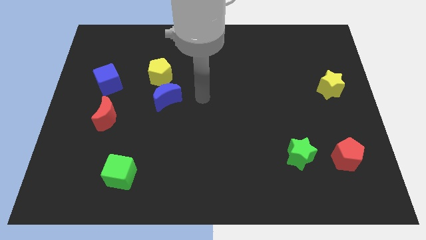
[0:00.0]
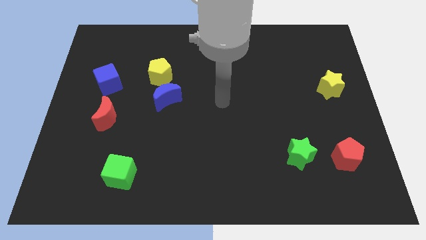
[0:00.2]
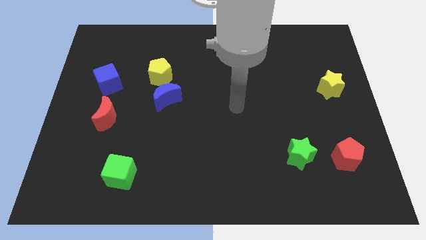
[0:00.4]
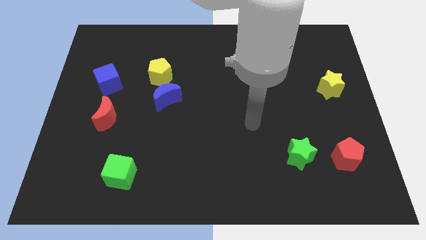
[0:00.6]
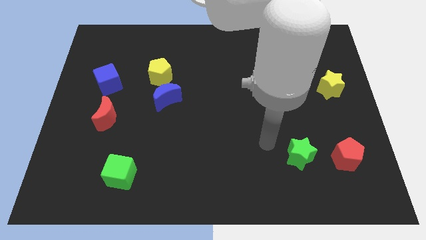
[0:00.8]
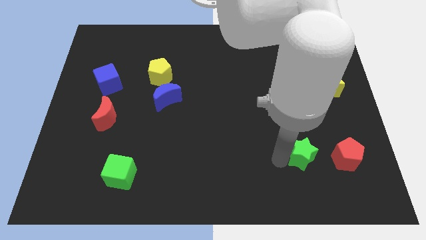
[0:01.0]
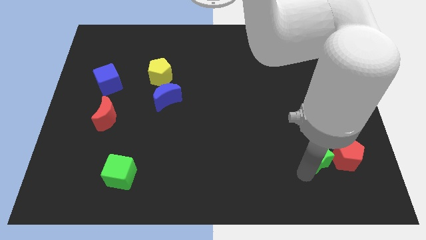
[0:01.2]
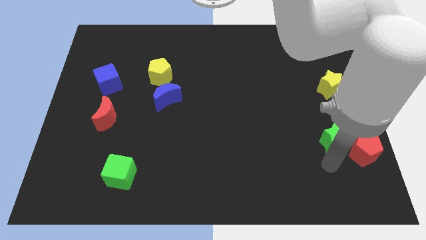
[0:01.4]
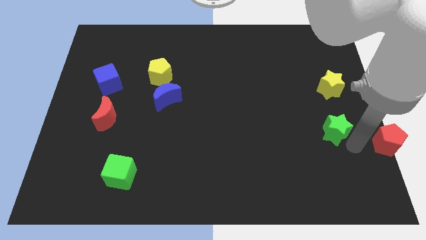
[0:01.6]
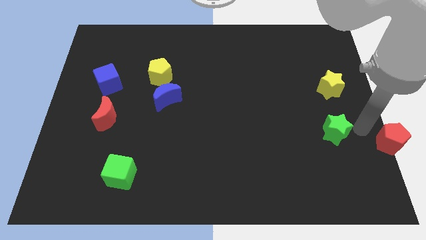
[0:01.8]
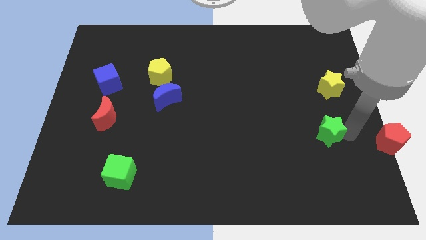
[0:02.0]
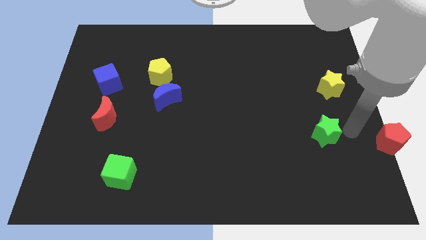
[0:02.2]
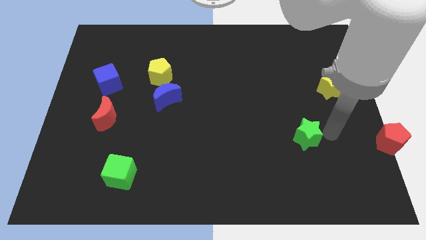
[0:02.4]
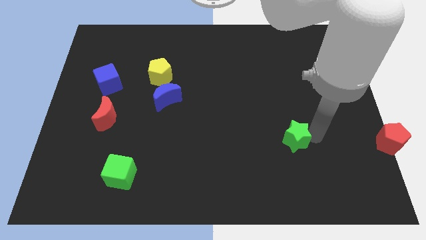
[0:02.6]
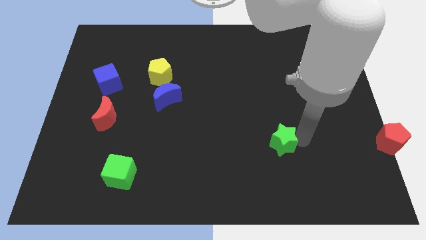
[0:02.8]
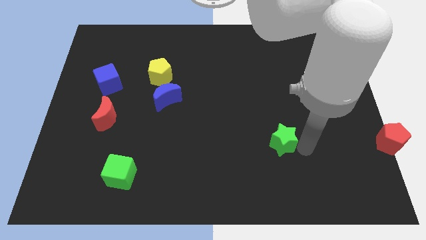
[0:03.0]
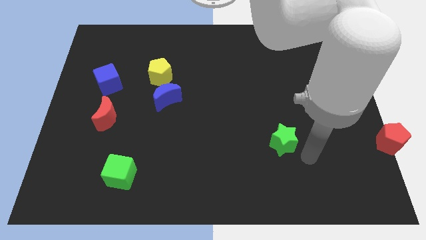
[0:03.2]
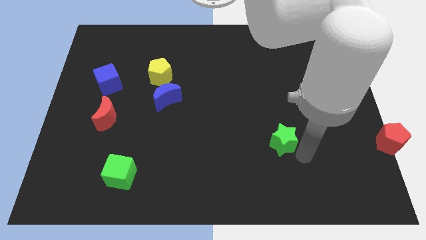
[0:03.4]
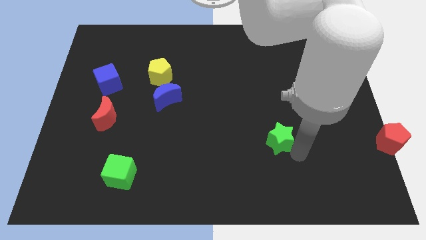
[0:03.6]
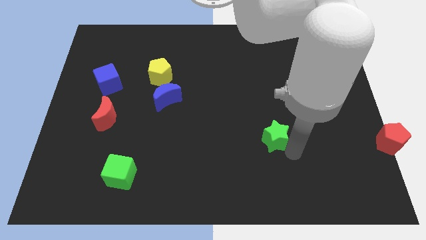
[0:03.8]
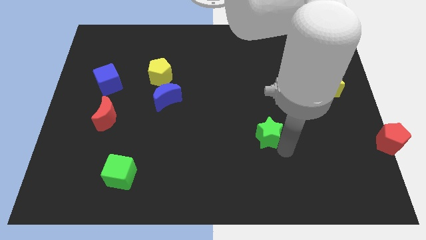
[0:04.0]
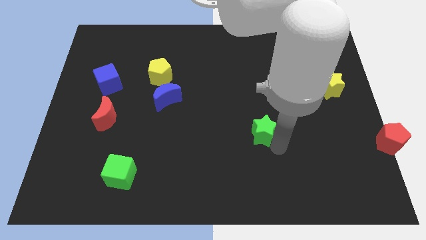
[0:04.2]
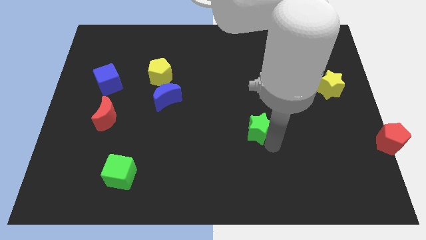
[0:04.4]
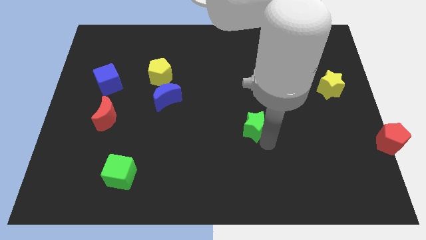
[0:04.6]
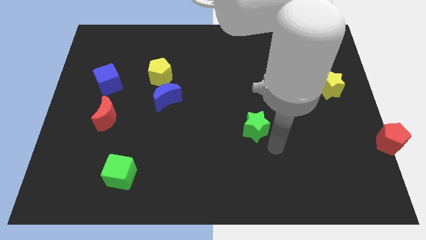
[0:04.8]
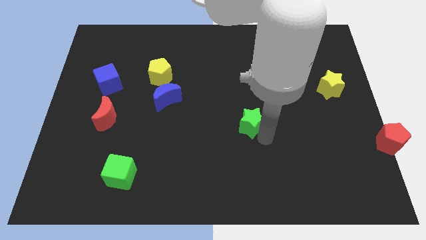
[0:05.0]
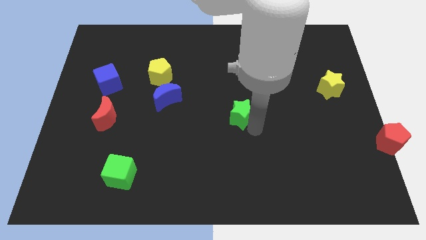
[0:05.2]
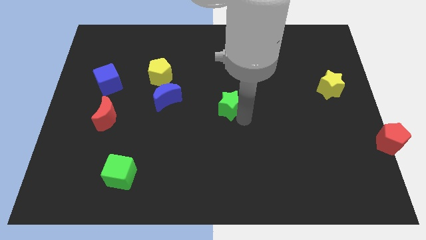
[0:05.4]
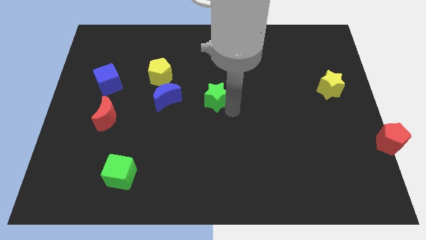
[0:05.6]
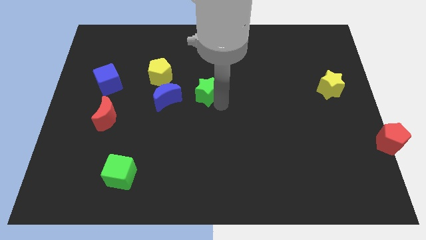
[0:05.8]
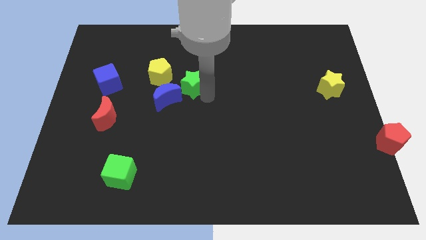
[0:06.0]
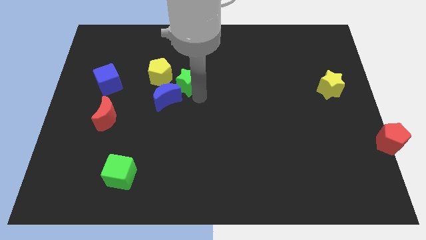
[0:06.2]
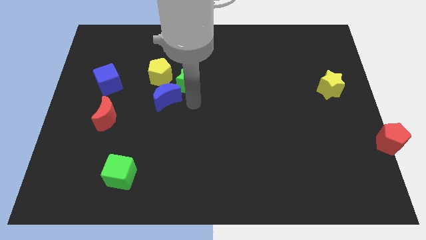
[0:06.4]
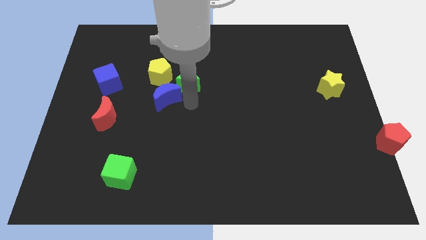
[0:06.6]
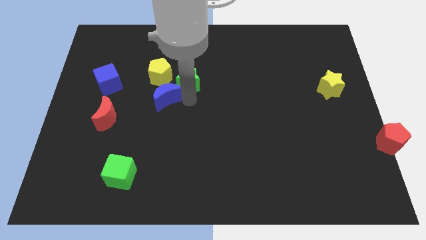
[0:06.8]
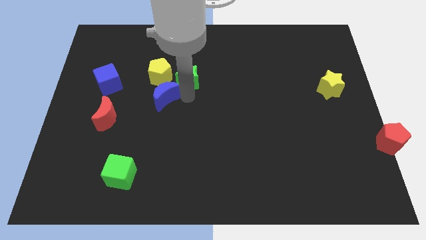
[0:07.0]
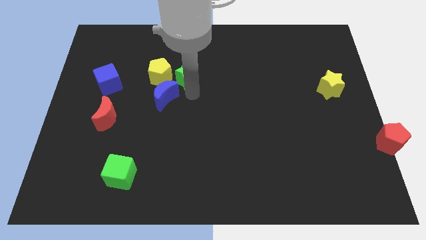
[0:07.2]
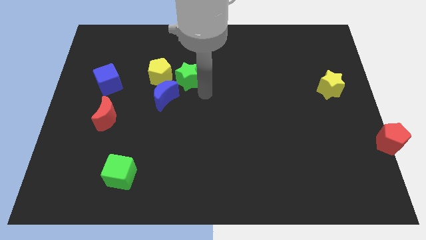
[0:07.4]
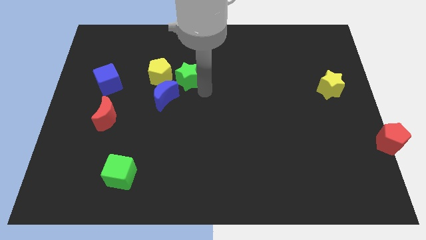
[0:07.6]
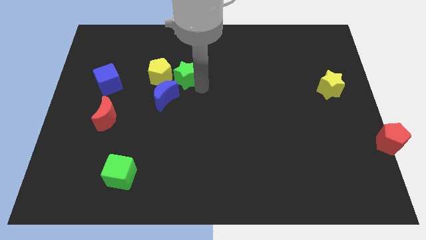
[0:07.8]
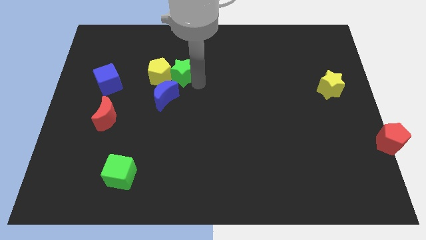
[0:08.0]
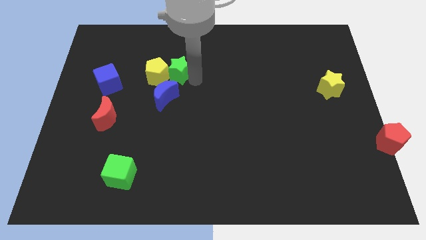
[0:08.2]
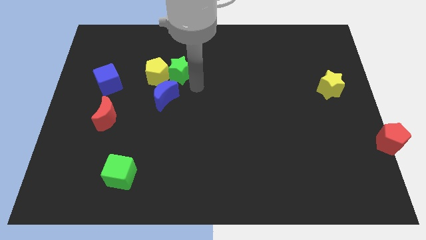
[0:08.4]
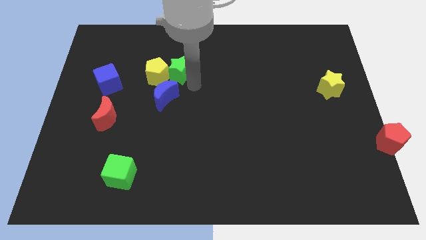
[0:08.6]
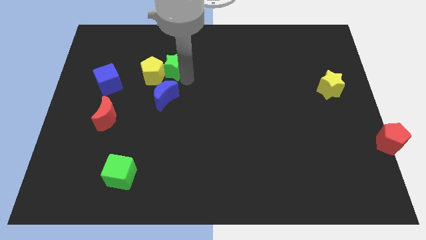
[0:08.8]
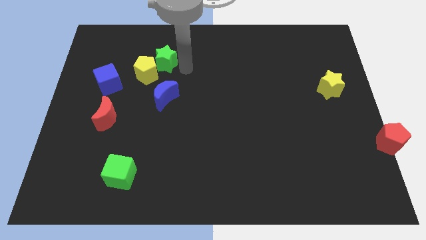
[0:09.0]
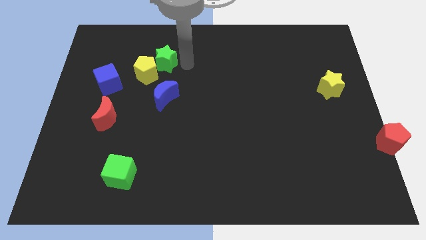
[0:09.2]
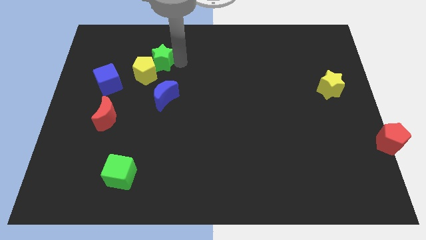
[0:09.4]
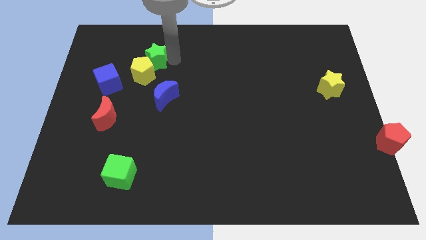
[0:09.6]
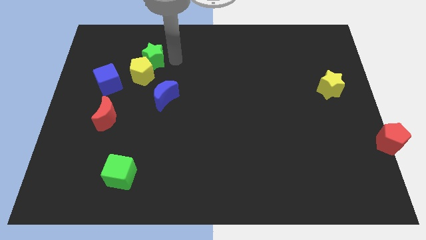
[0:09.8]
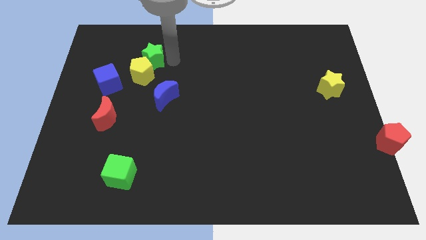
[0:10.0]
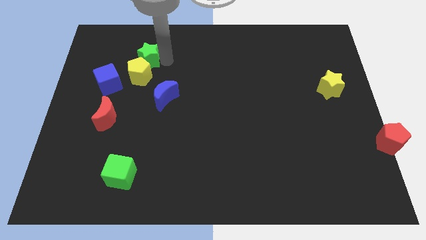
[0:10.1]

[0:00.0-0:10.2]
move the green star diagonally up and to the left of the yellow pentagon

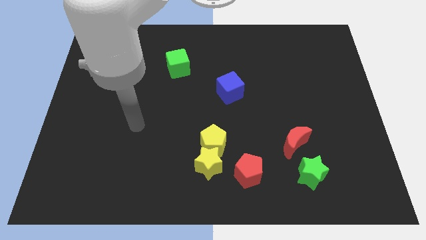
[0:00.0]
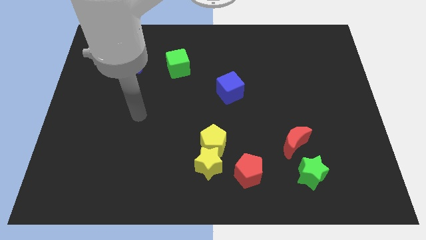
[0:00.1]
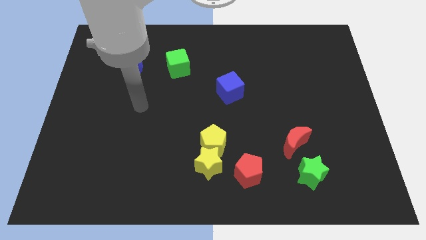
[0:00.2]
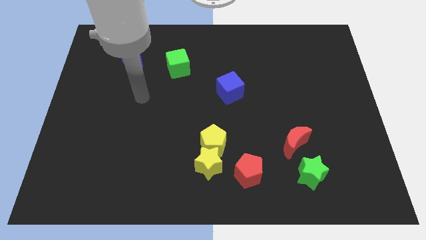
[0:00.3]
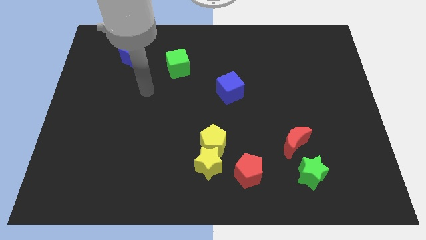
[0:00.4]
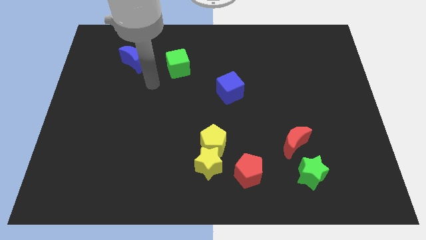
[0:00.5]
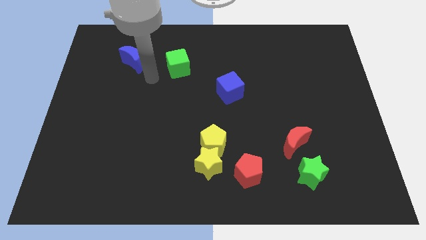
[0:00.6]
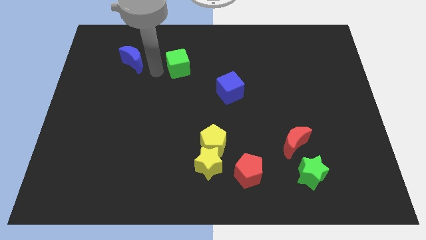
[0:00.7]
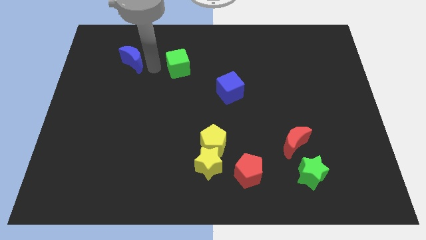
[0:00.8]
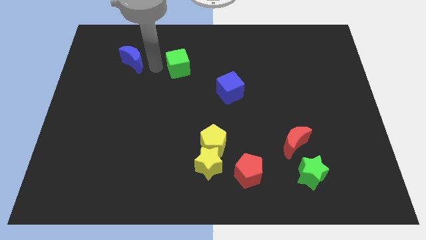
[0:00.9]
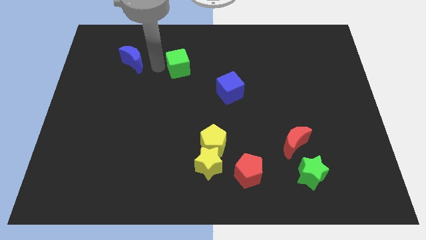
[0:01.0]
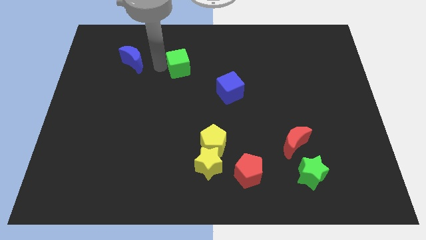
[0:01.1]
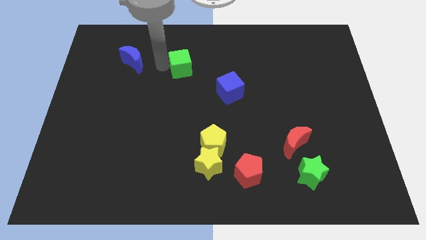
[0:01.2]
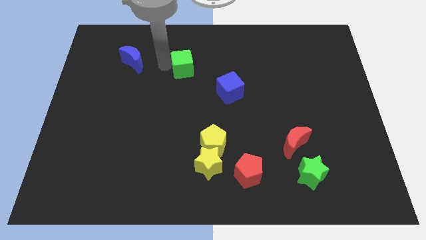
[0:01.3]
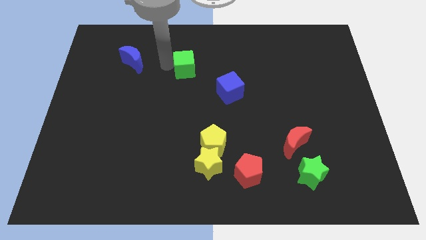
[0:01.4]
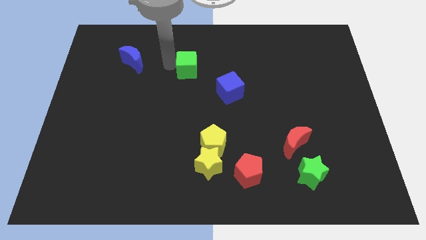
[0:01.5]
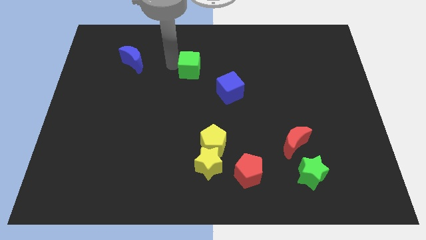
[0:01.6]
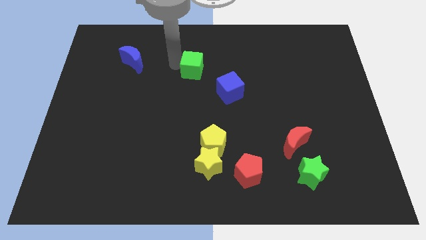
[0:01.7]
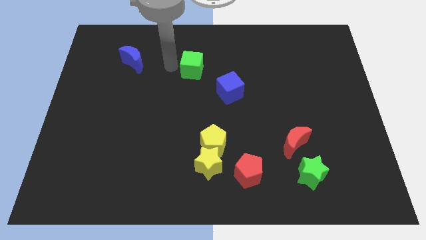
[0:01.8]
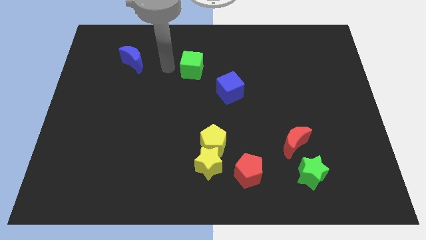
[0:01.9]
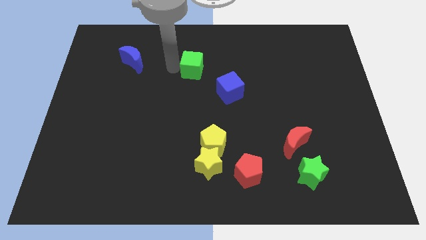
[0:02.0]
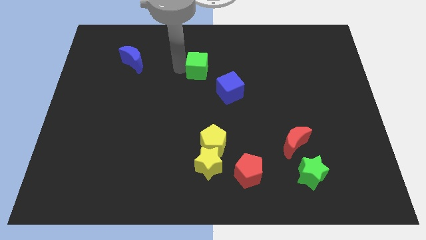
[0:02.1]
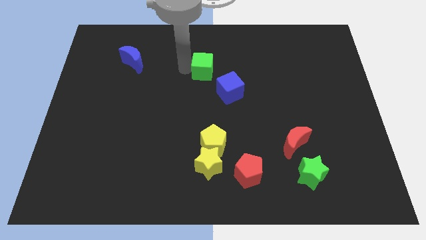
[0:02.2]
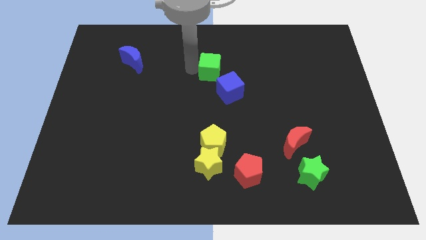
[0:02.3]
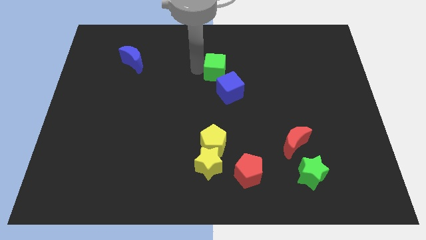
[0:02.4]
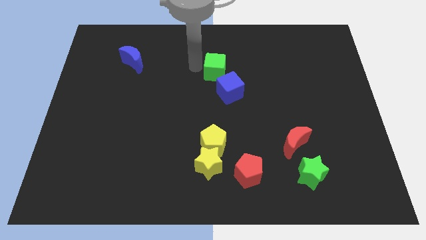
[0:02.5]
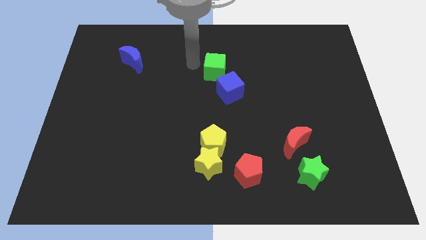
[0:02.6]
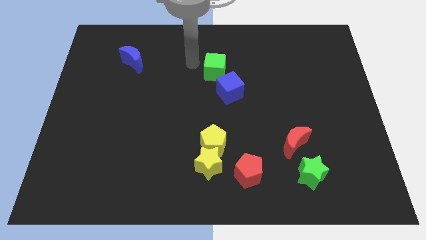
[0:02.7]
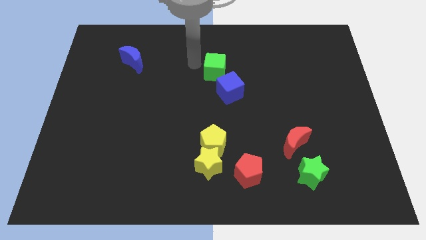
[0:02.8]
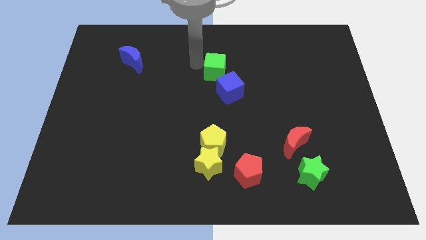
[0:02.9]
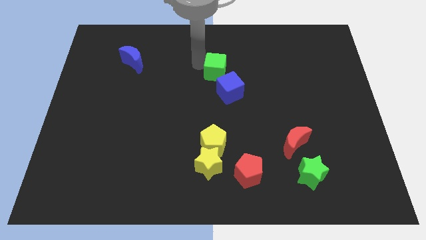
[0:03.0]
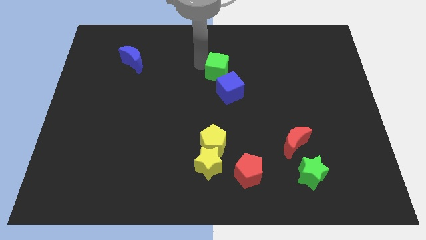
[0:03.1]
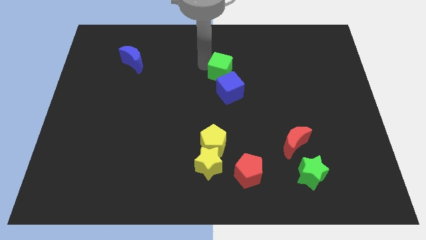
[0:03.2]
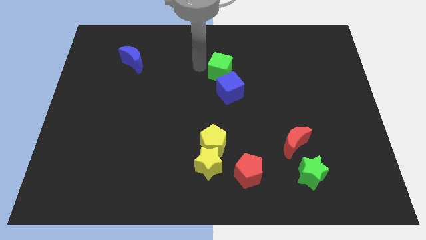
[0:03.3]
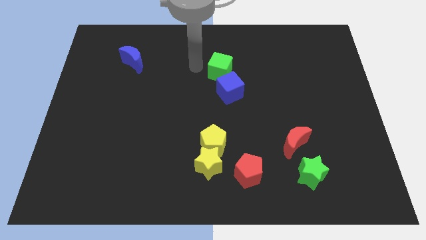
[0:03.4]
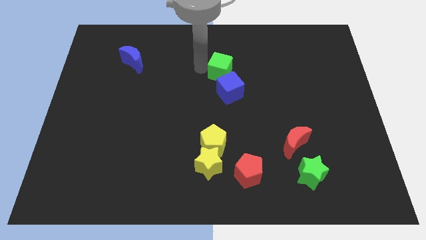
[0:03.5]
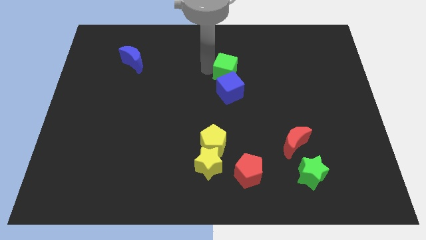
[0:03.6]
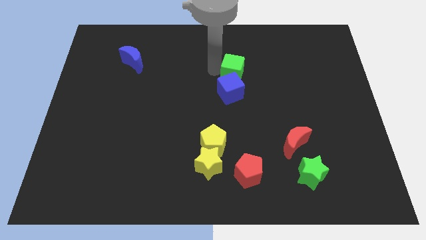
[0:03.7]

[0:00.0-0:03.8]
put the green cube diagonally up and to the right of the blue cube
